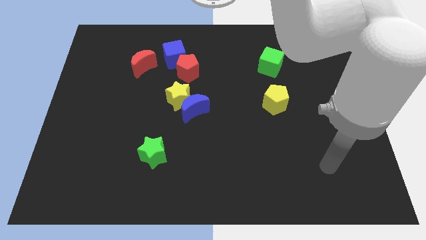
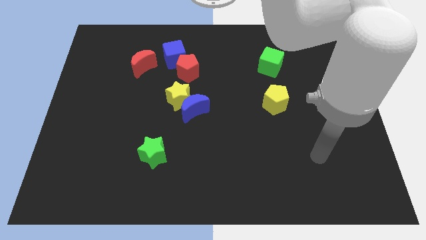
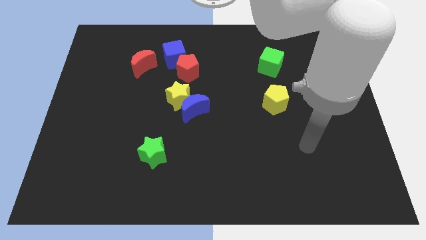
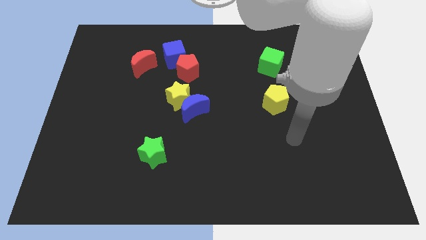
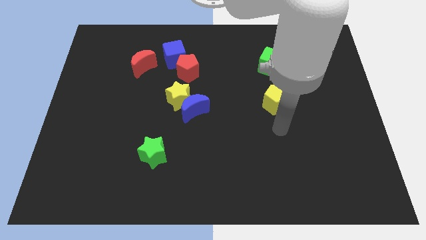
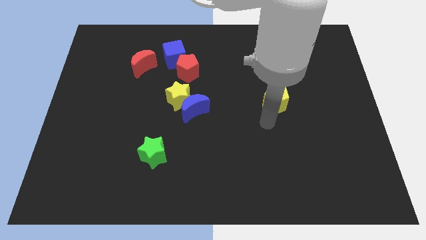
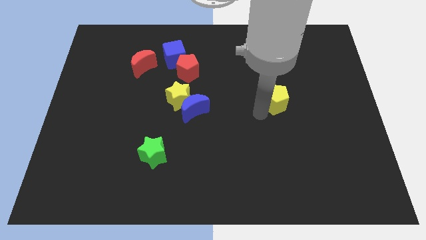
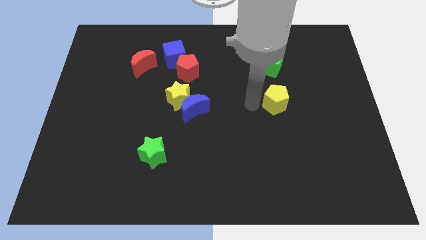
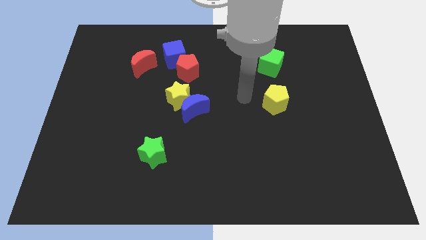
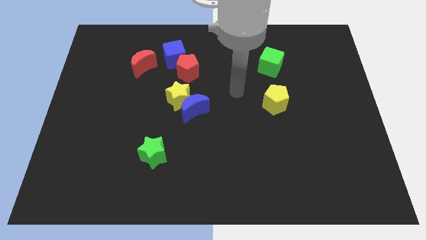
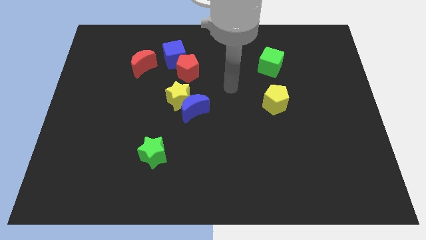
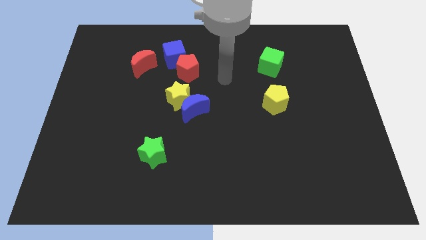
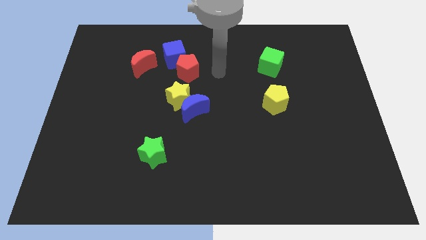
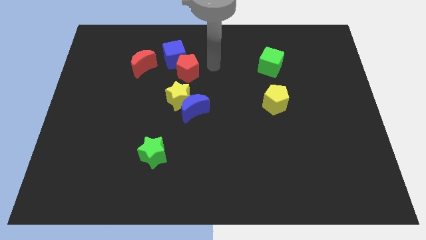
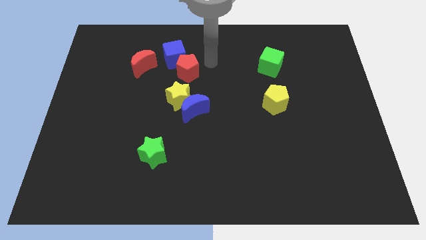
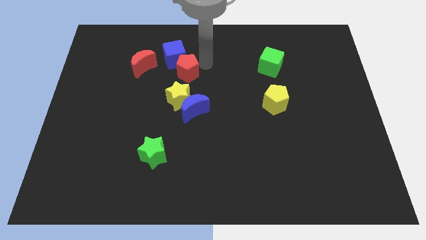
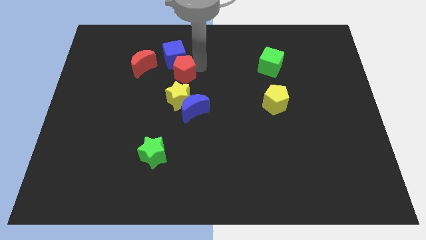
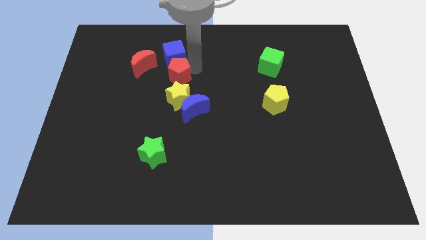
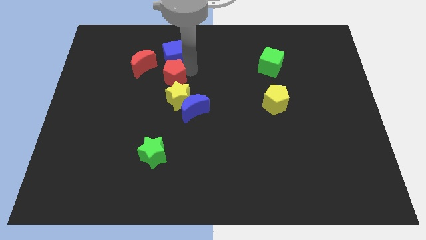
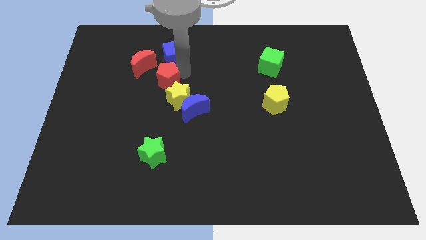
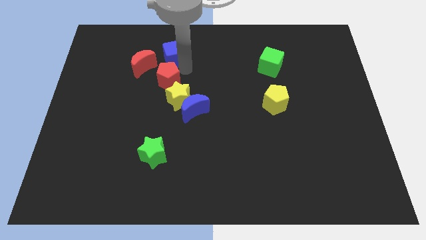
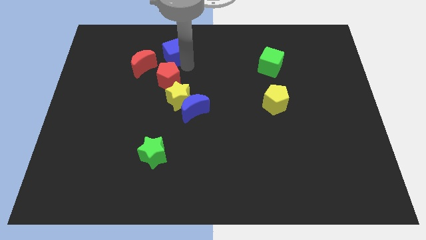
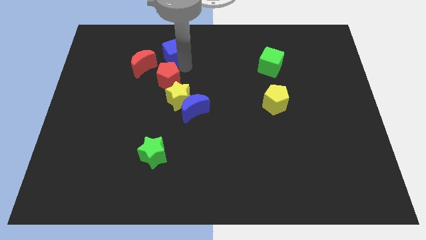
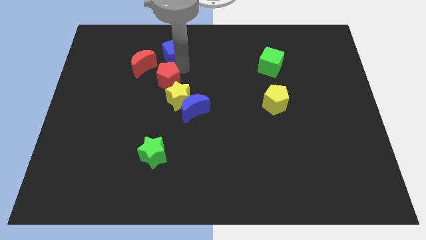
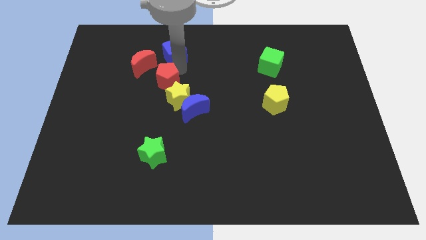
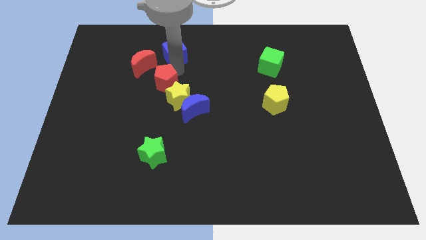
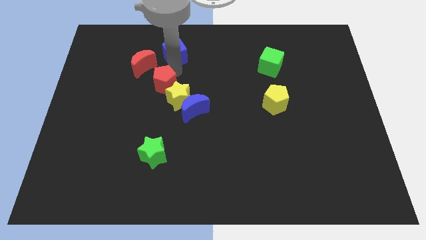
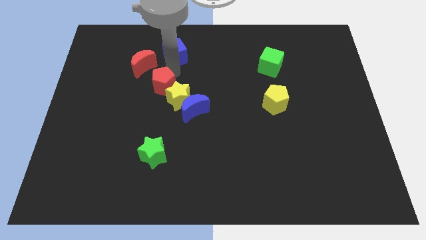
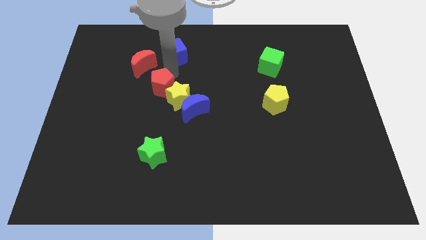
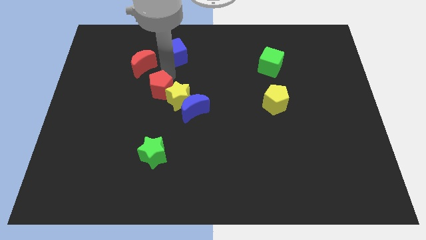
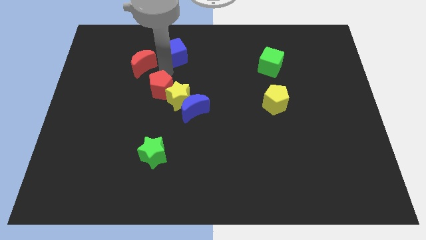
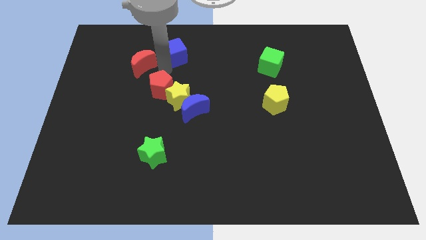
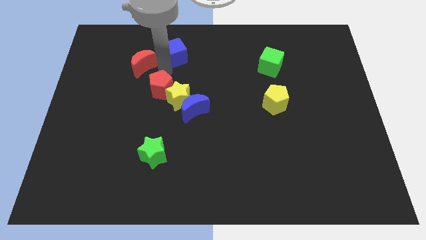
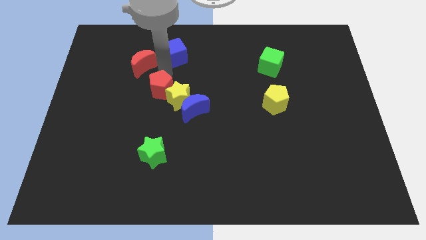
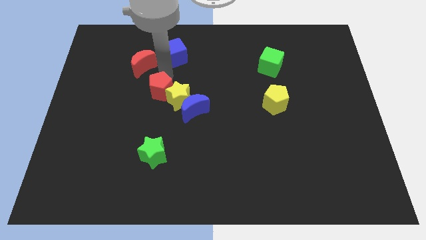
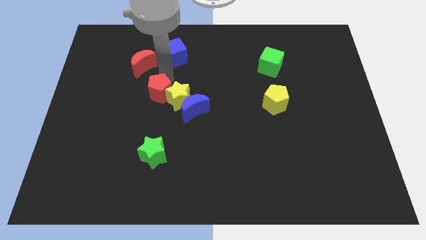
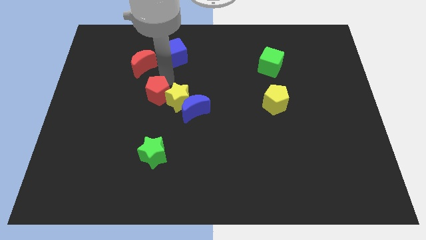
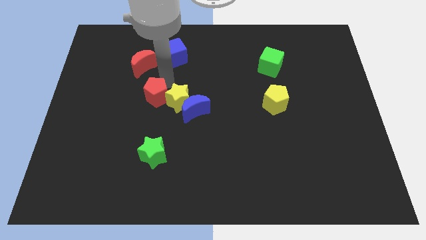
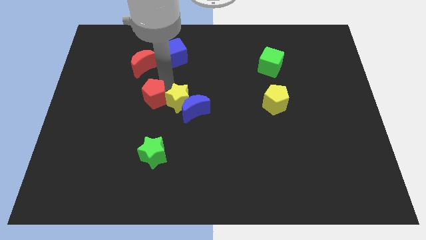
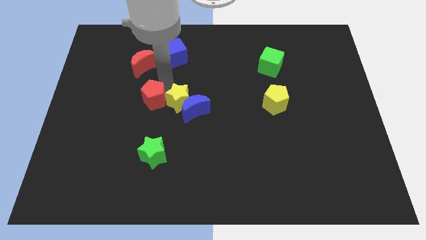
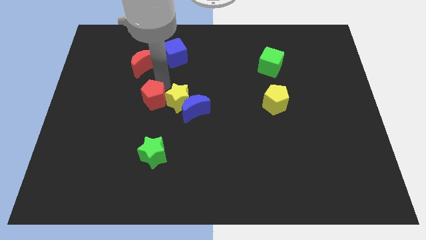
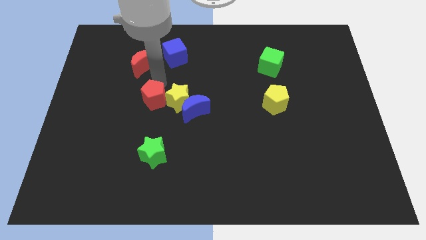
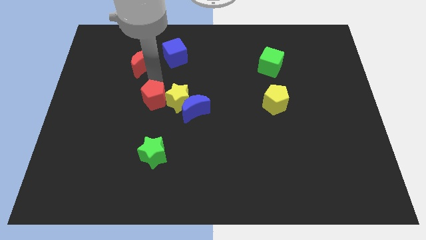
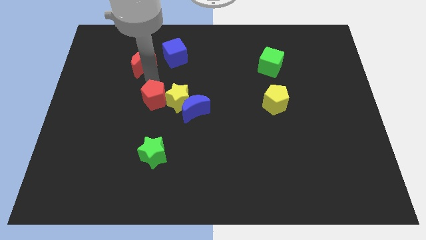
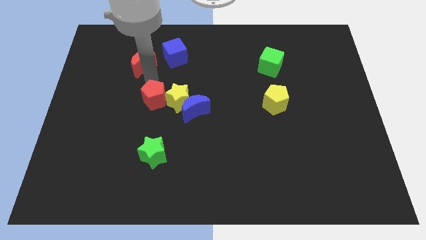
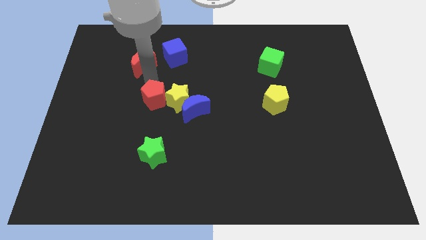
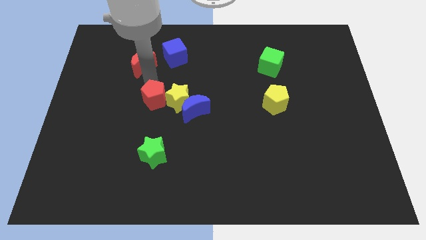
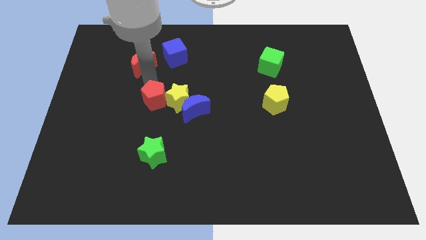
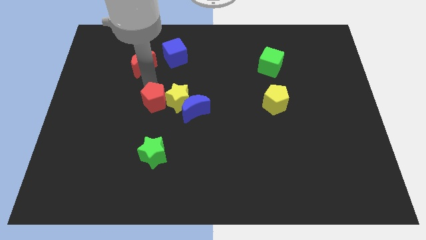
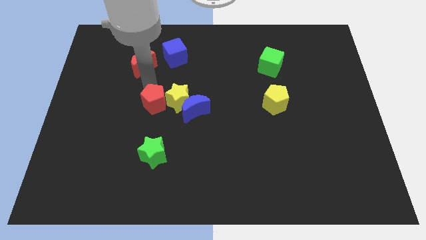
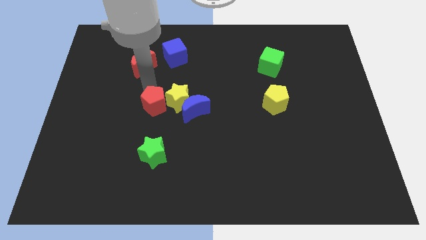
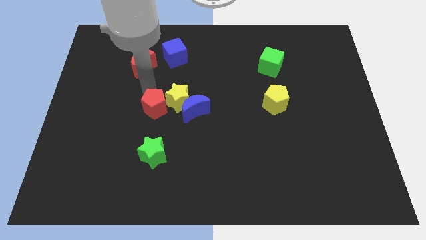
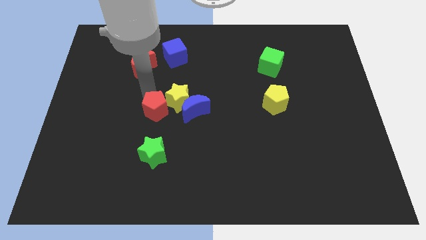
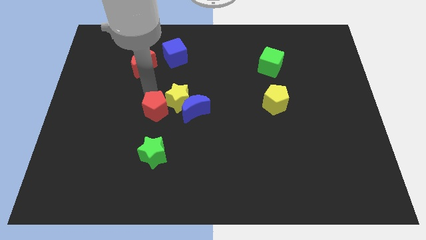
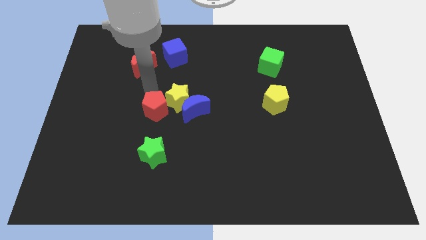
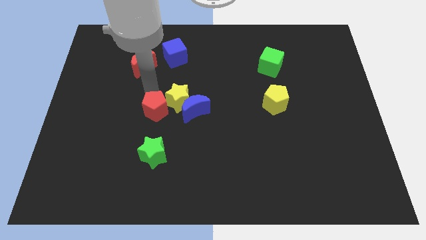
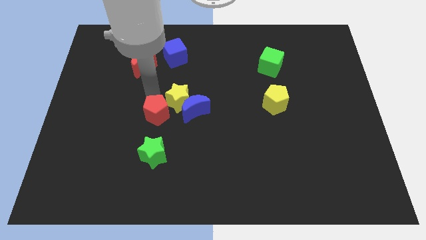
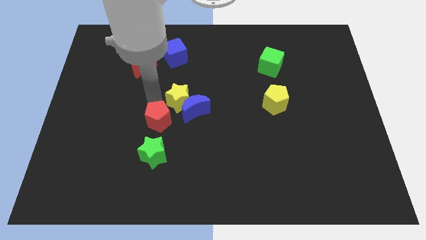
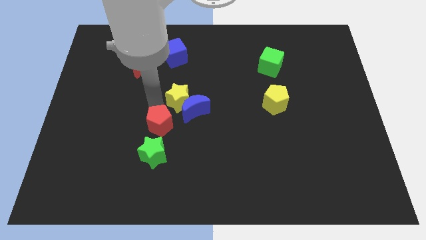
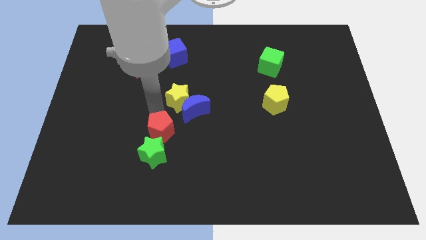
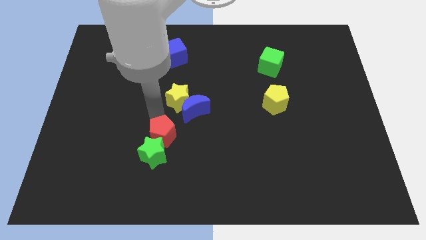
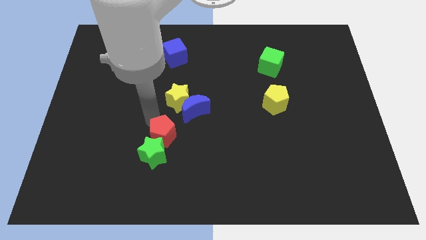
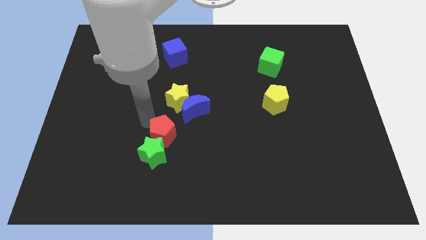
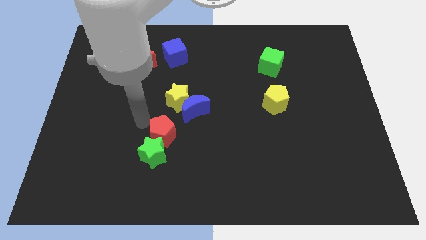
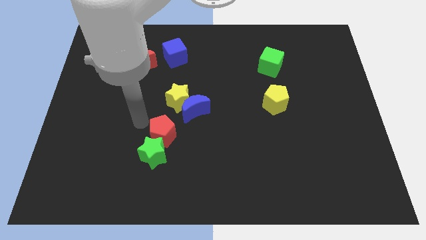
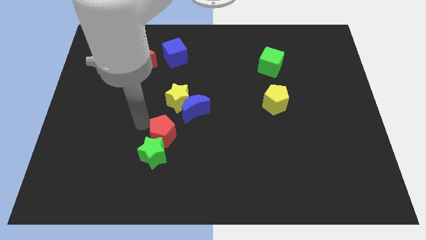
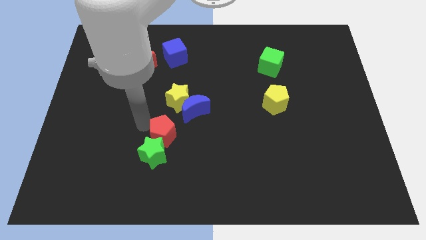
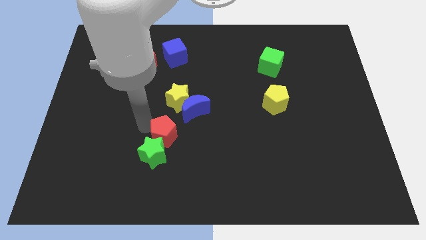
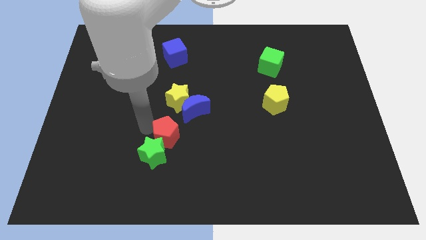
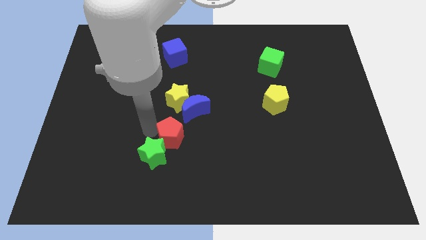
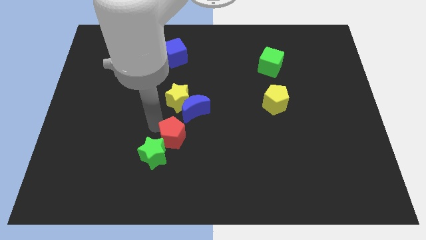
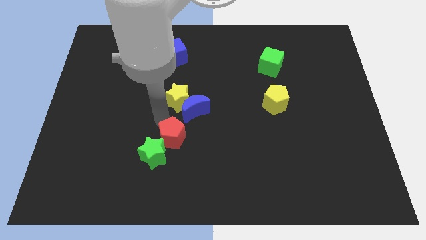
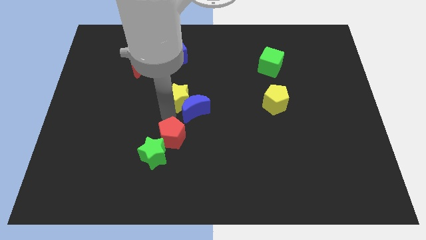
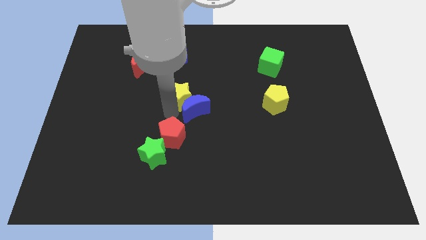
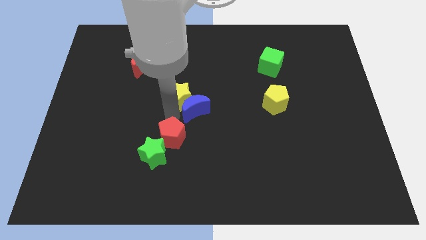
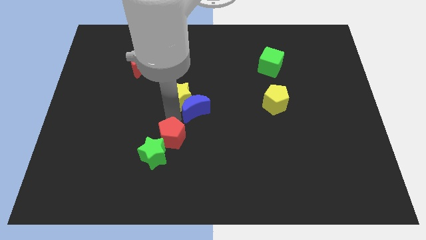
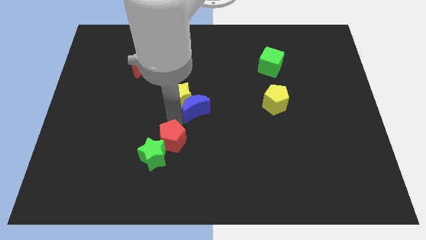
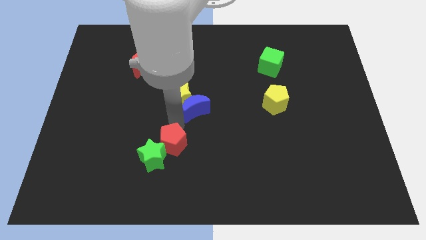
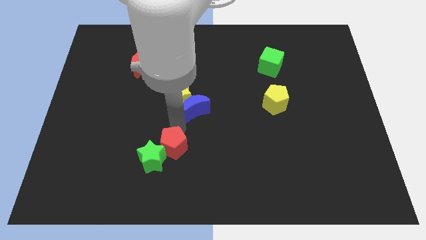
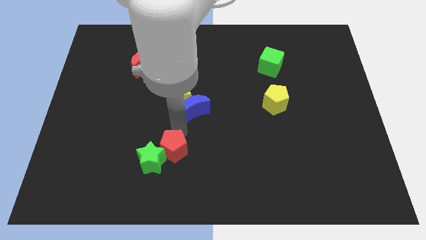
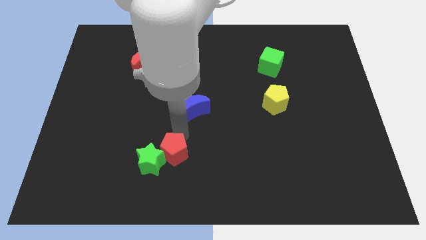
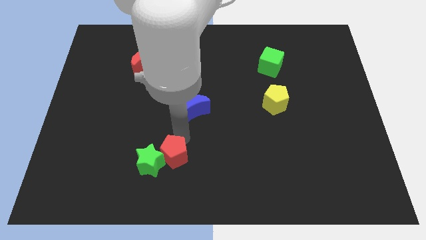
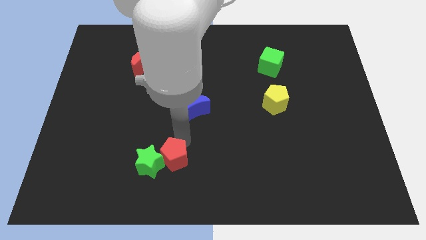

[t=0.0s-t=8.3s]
slide the red pentagon diagonally down and to the right of the green star
